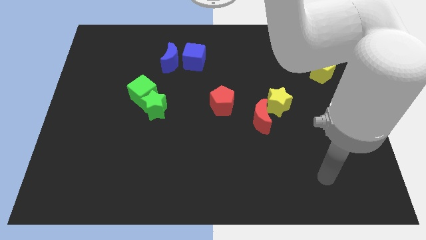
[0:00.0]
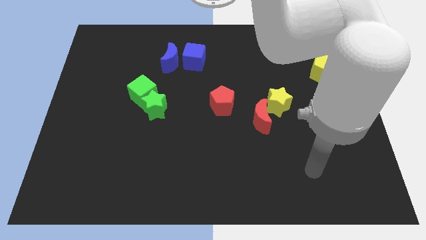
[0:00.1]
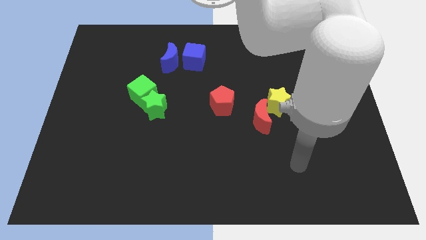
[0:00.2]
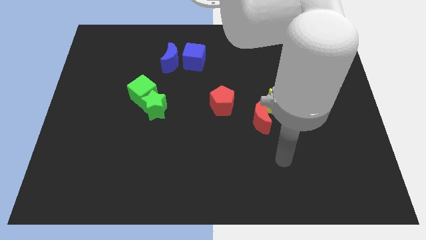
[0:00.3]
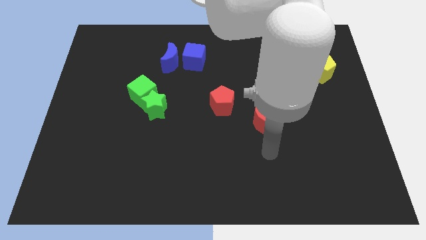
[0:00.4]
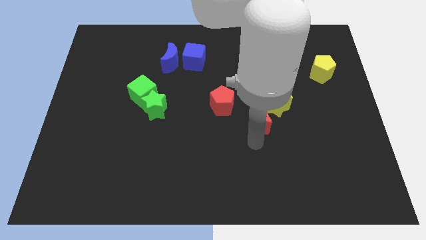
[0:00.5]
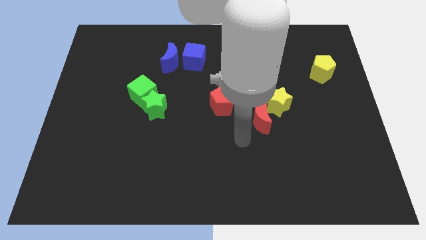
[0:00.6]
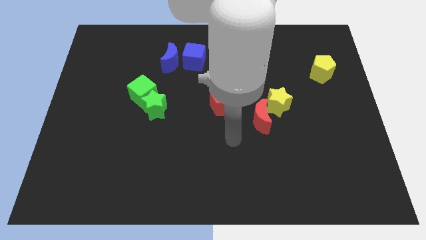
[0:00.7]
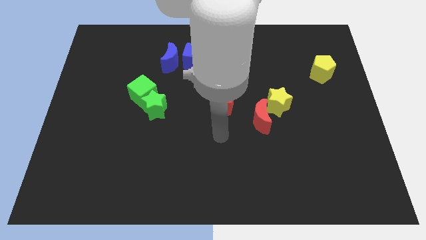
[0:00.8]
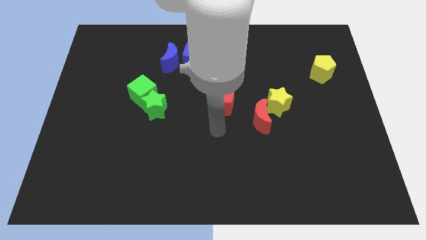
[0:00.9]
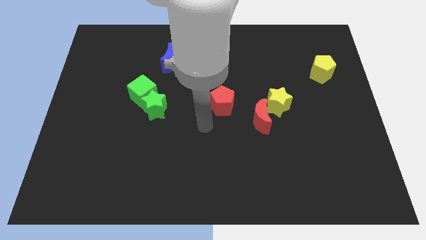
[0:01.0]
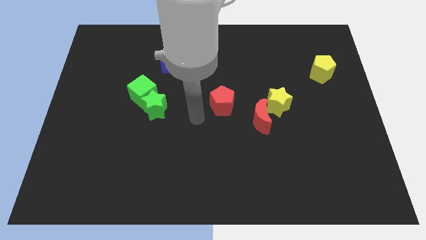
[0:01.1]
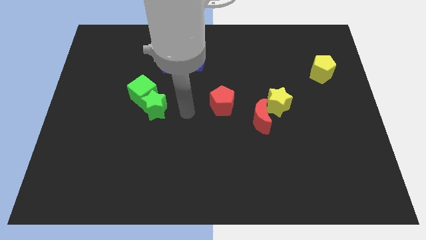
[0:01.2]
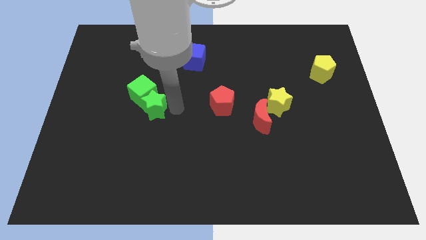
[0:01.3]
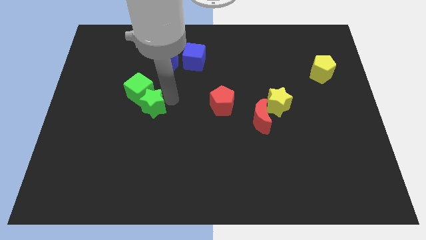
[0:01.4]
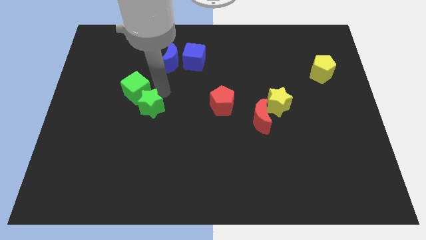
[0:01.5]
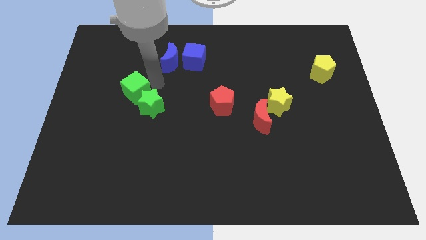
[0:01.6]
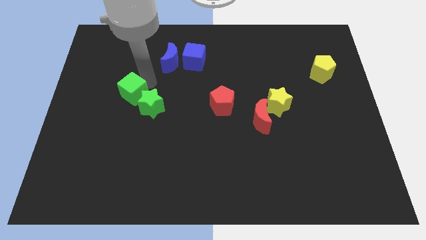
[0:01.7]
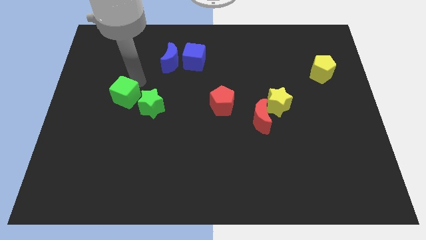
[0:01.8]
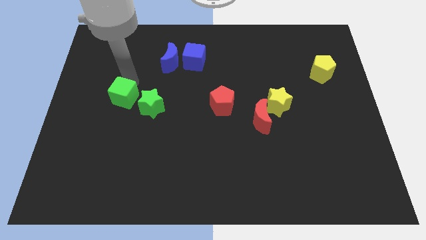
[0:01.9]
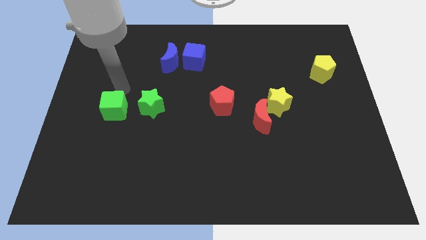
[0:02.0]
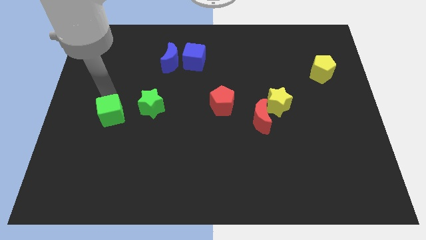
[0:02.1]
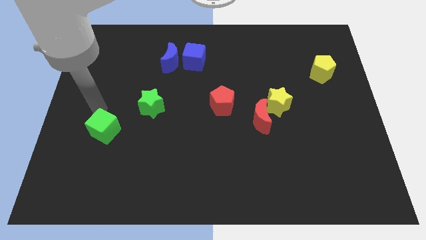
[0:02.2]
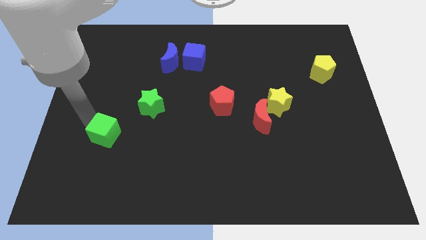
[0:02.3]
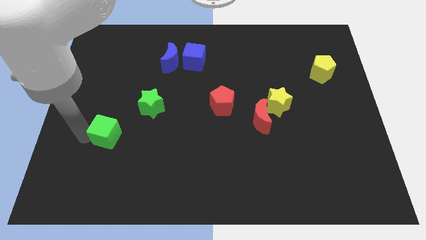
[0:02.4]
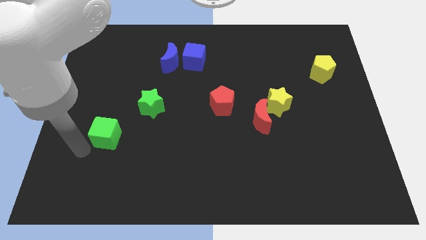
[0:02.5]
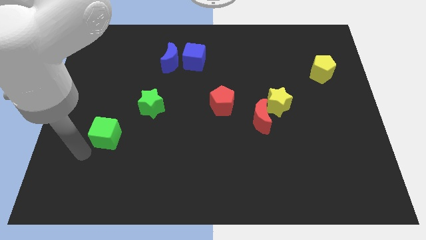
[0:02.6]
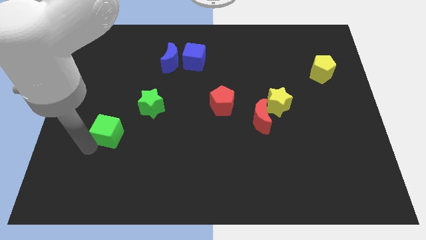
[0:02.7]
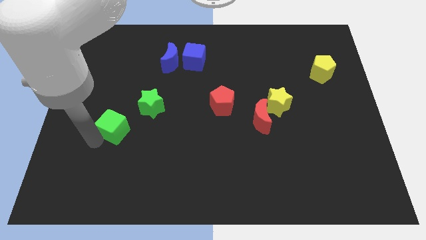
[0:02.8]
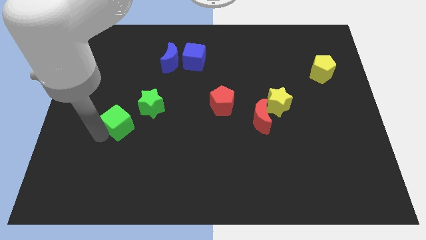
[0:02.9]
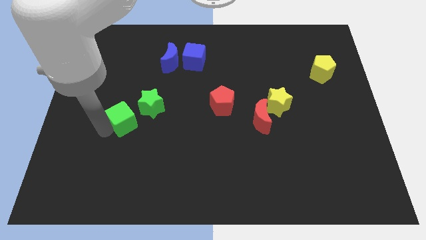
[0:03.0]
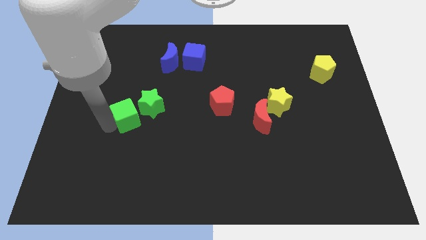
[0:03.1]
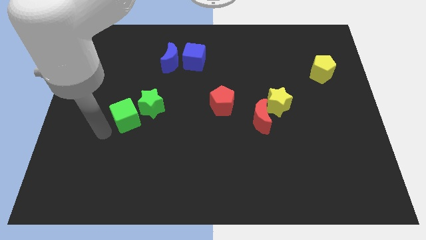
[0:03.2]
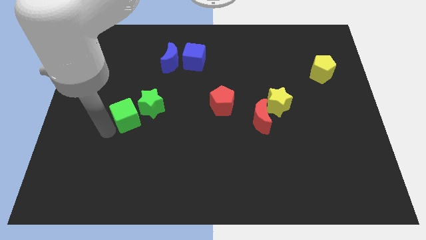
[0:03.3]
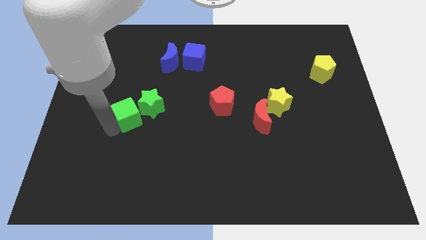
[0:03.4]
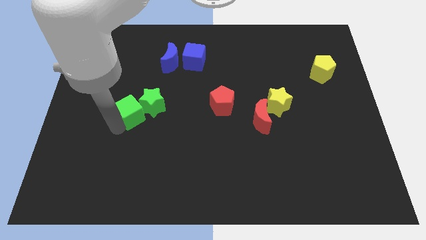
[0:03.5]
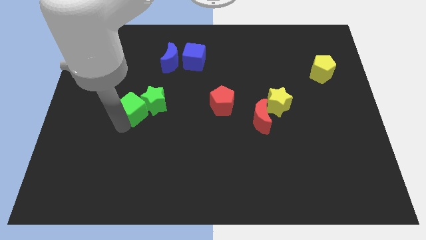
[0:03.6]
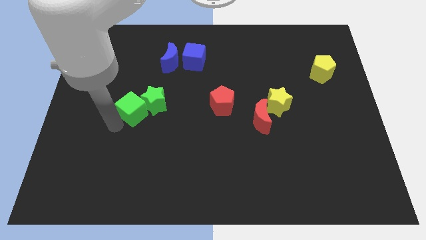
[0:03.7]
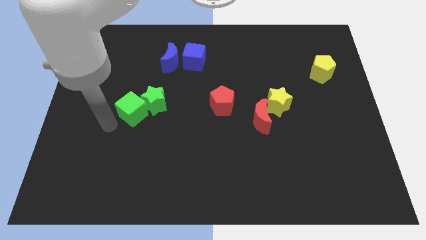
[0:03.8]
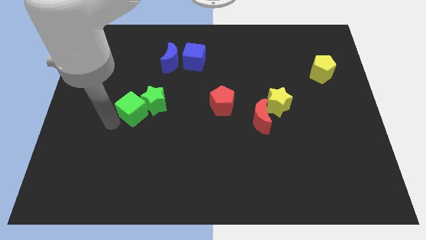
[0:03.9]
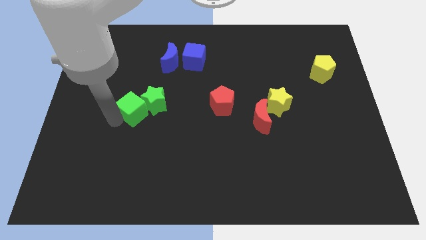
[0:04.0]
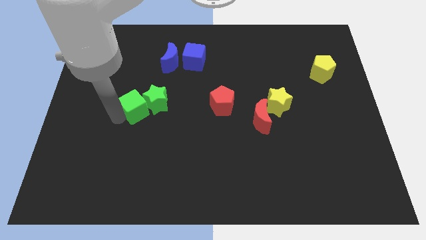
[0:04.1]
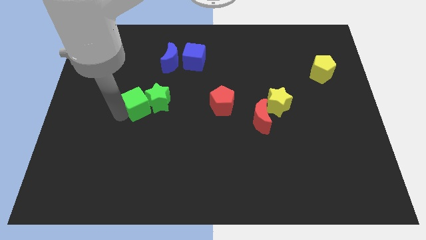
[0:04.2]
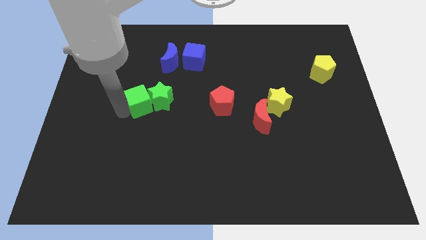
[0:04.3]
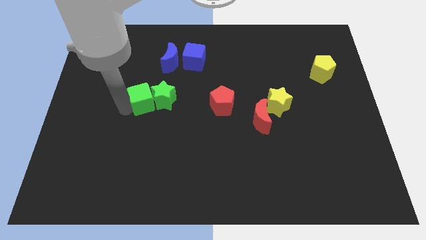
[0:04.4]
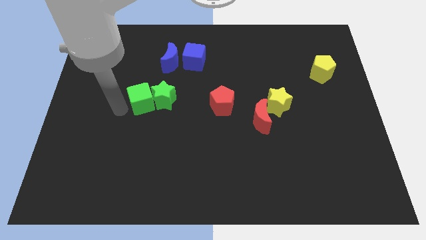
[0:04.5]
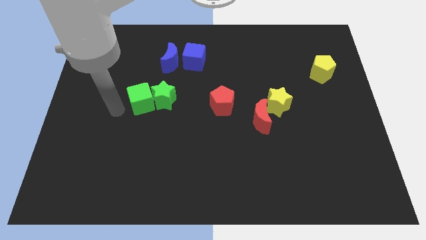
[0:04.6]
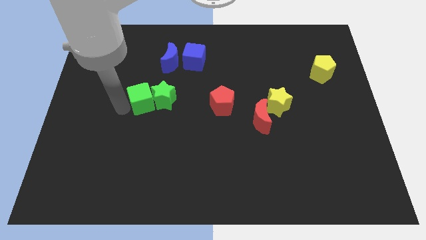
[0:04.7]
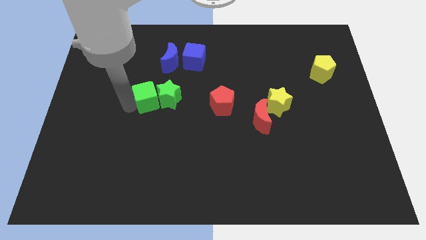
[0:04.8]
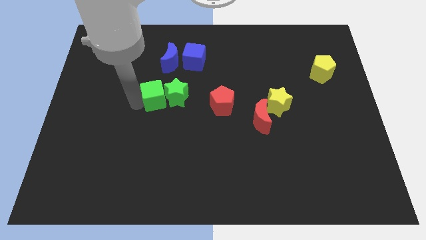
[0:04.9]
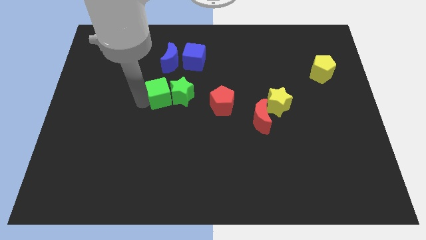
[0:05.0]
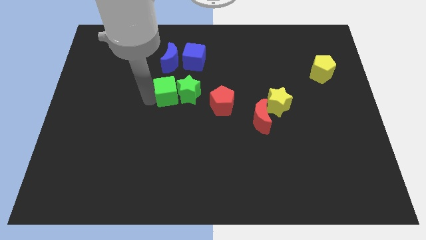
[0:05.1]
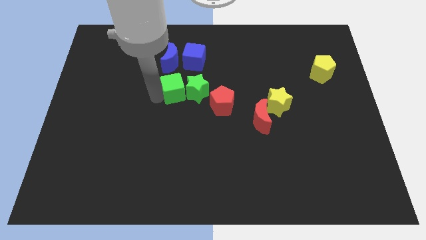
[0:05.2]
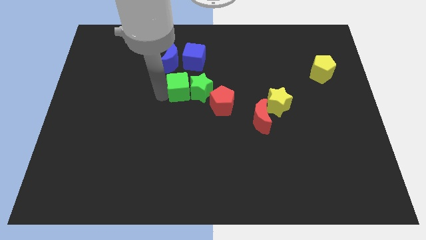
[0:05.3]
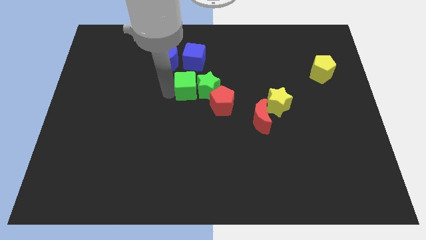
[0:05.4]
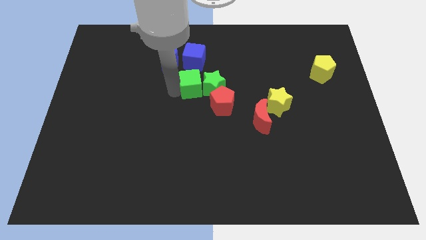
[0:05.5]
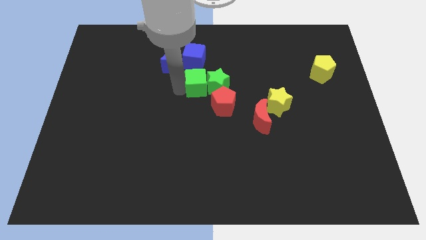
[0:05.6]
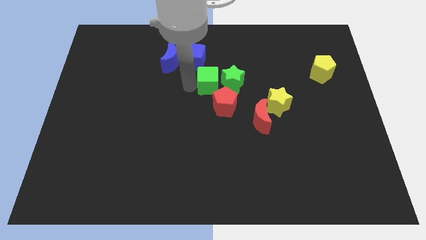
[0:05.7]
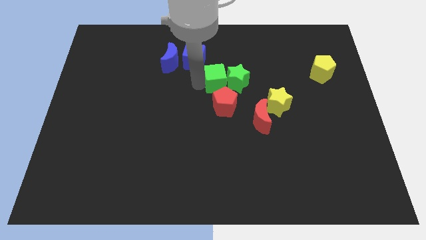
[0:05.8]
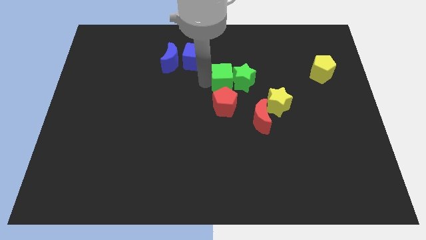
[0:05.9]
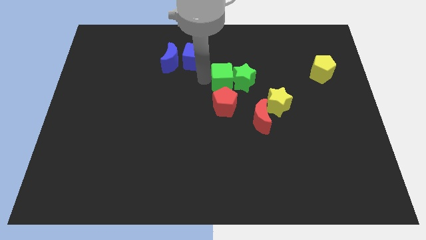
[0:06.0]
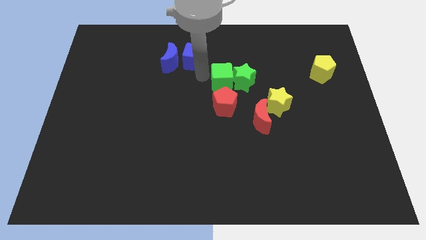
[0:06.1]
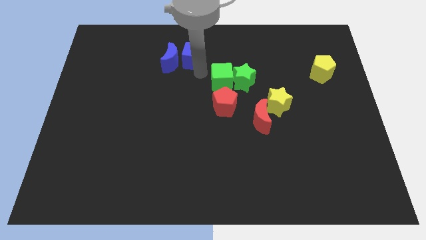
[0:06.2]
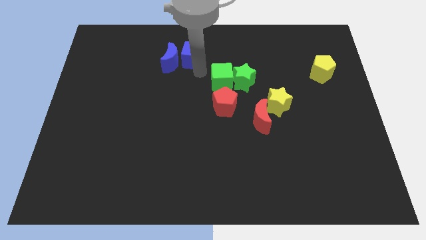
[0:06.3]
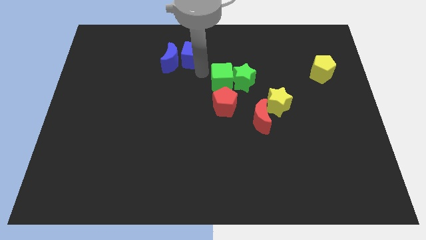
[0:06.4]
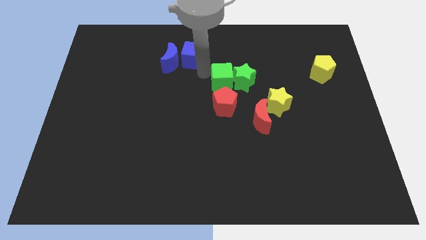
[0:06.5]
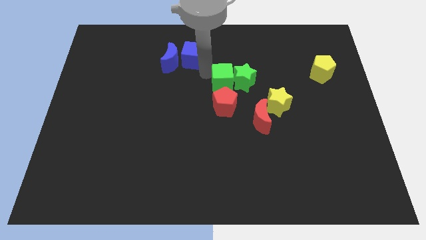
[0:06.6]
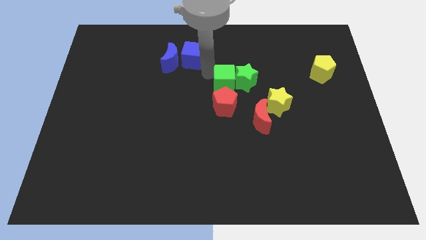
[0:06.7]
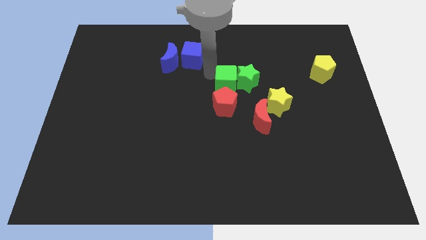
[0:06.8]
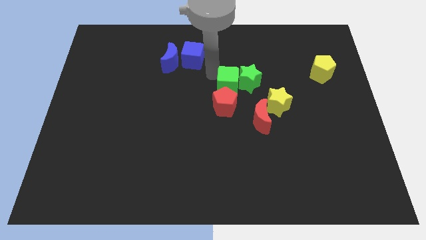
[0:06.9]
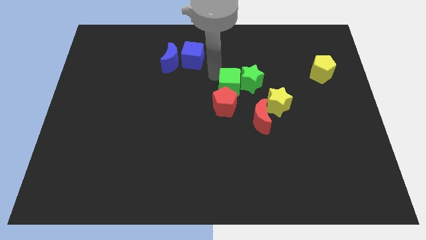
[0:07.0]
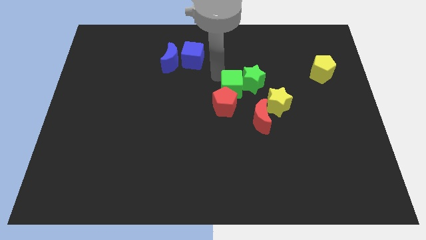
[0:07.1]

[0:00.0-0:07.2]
put the green cube to the top left of the yellow star

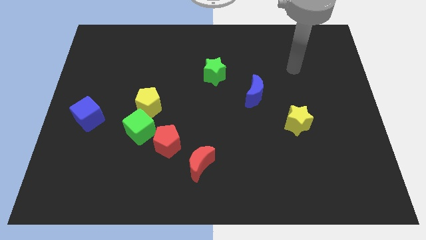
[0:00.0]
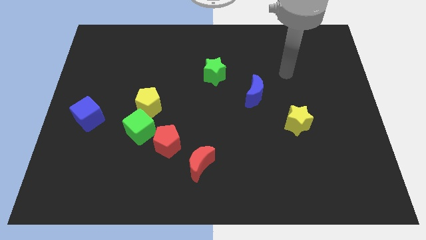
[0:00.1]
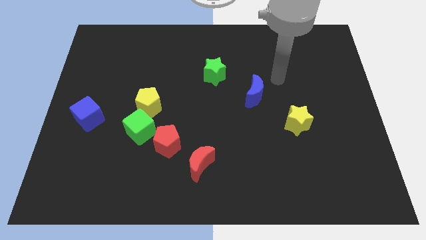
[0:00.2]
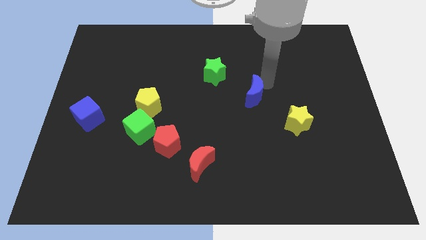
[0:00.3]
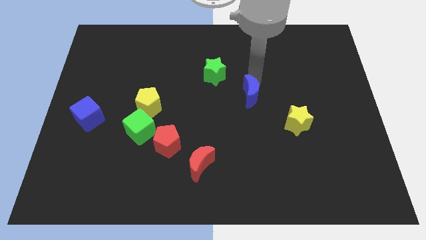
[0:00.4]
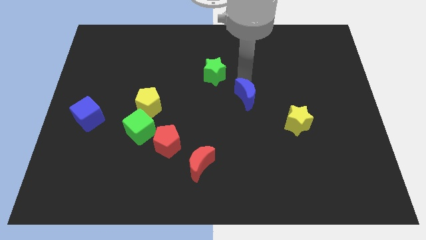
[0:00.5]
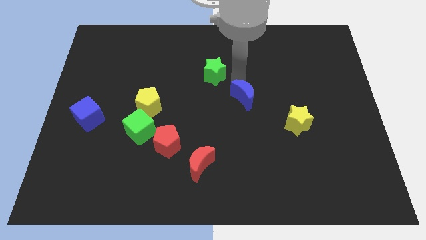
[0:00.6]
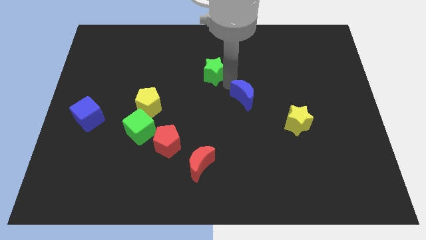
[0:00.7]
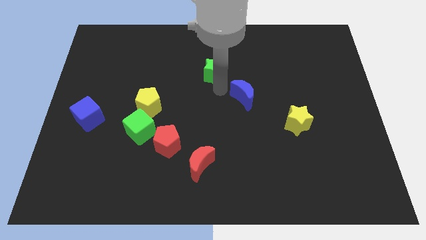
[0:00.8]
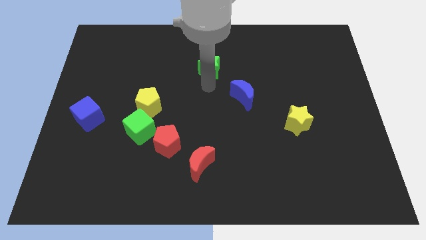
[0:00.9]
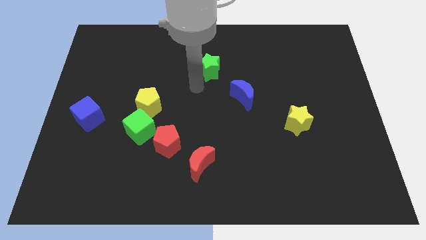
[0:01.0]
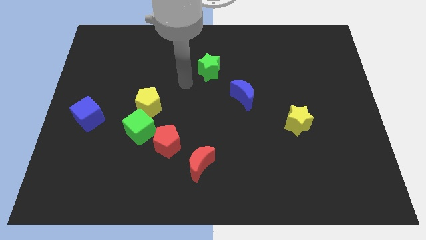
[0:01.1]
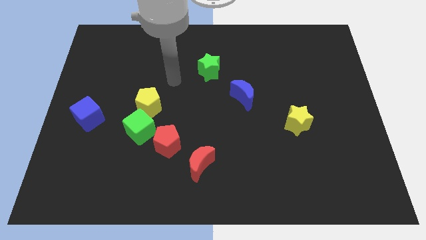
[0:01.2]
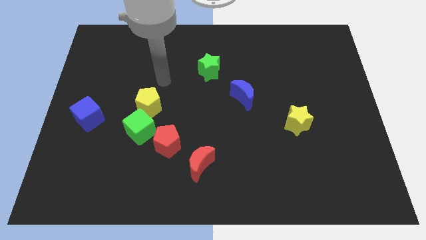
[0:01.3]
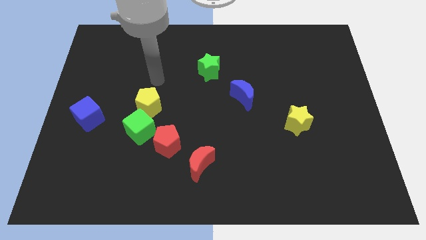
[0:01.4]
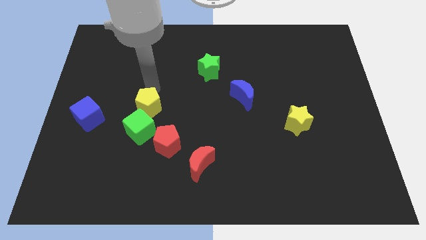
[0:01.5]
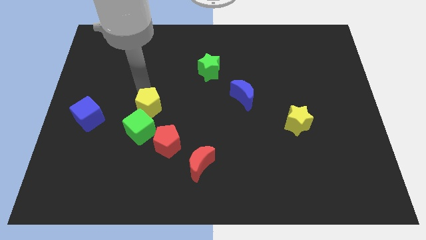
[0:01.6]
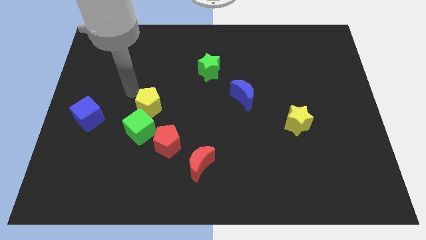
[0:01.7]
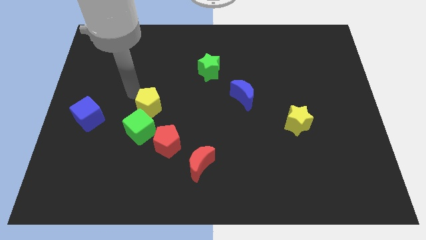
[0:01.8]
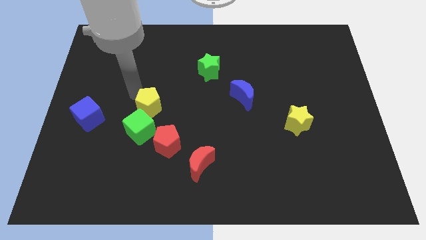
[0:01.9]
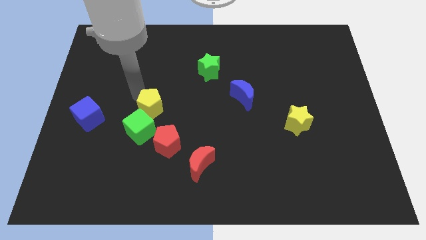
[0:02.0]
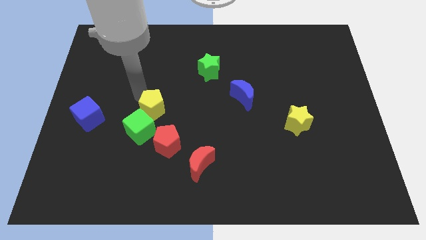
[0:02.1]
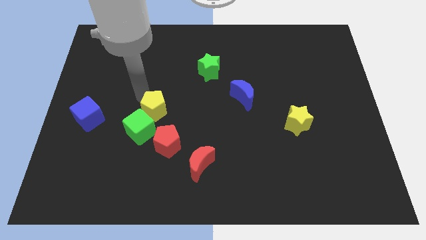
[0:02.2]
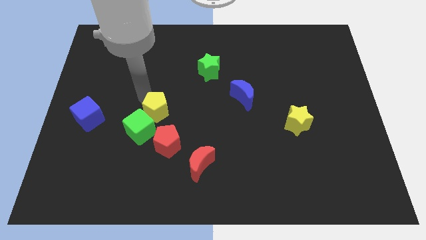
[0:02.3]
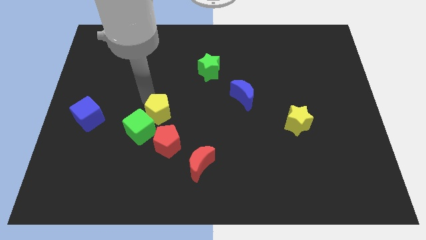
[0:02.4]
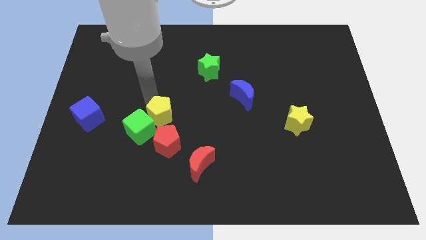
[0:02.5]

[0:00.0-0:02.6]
move the yellow pentagon to the right side of the green cube
